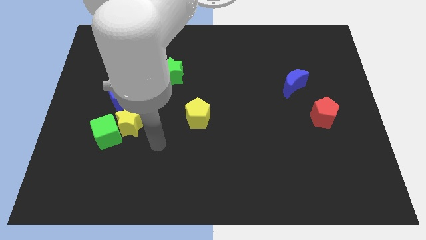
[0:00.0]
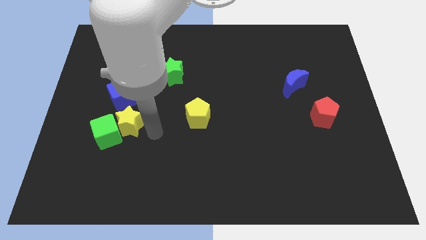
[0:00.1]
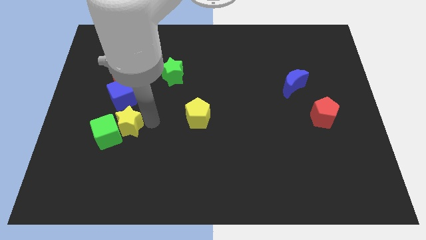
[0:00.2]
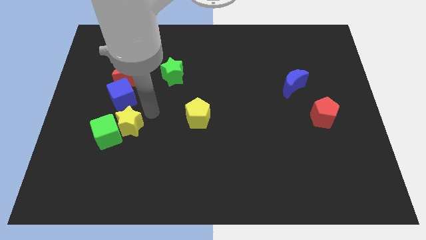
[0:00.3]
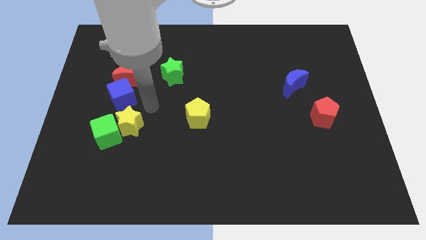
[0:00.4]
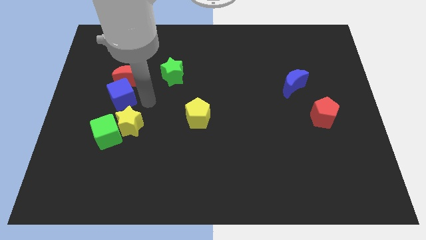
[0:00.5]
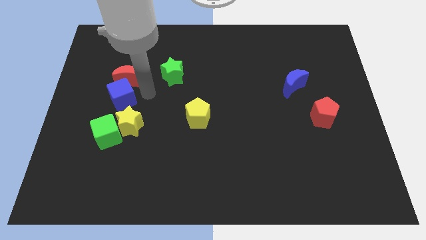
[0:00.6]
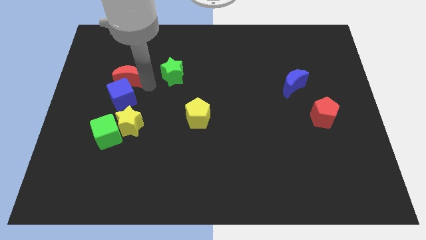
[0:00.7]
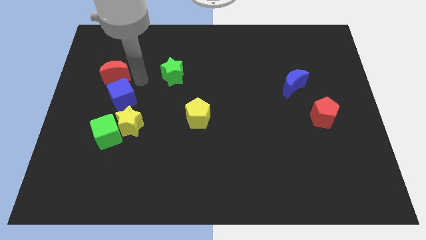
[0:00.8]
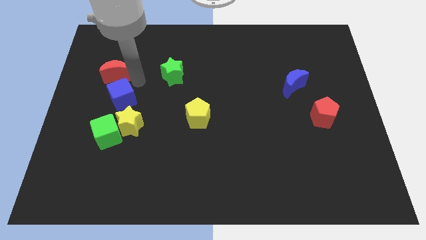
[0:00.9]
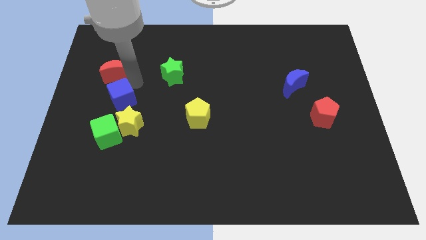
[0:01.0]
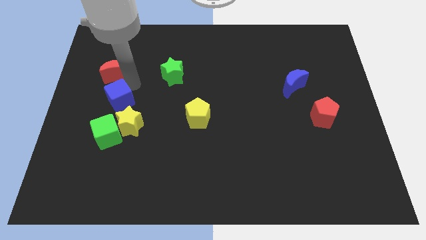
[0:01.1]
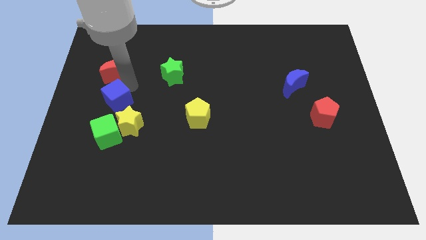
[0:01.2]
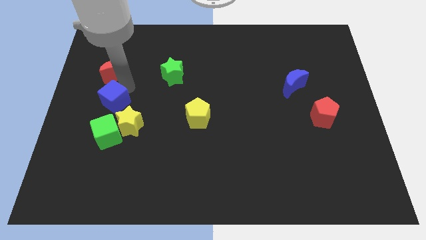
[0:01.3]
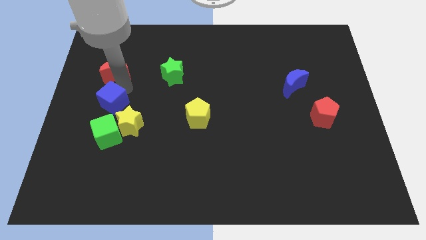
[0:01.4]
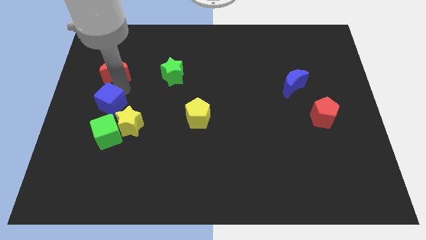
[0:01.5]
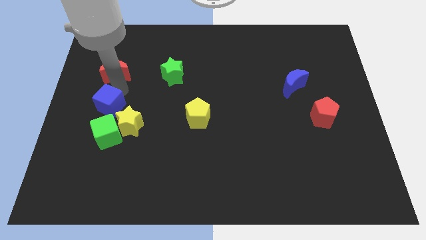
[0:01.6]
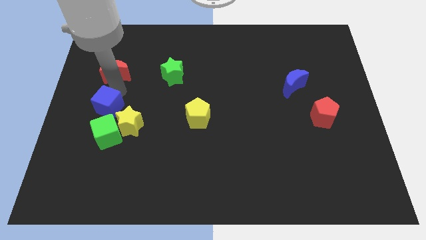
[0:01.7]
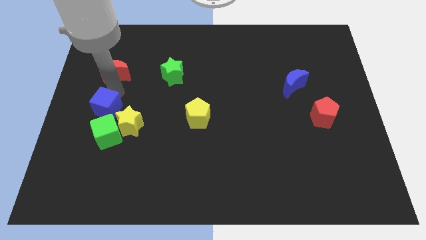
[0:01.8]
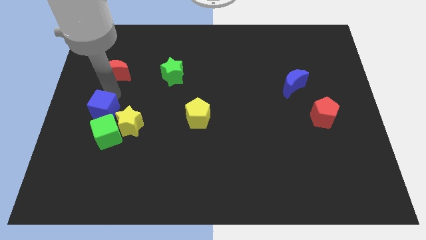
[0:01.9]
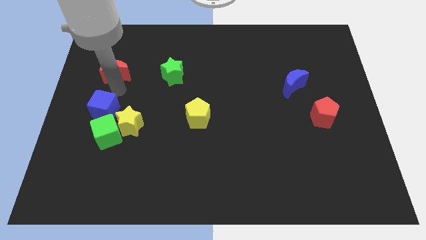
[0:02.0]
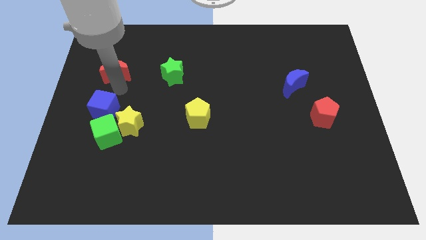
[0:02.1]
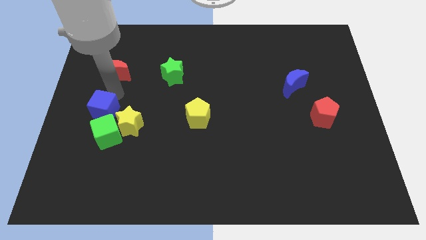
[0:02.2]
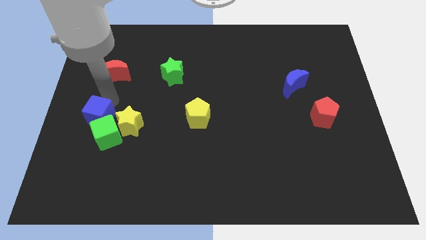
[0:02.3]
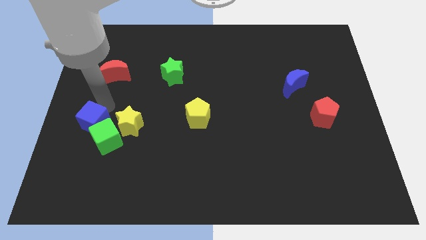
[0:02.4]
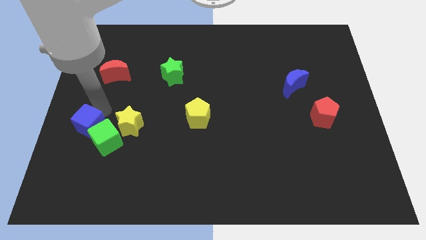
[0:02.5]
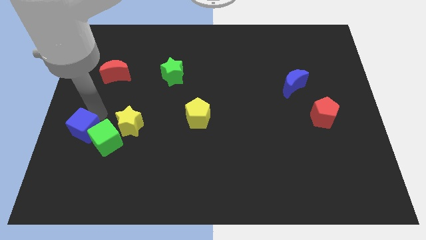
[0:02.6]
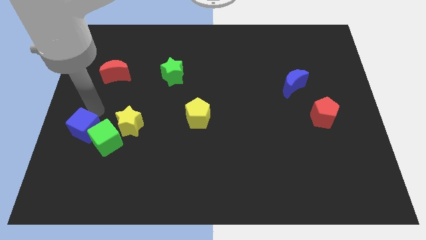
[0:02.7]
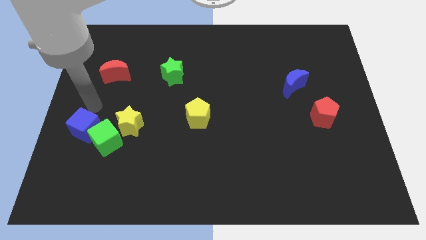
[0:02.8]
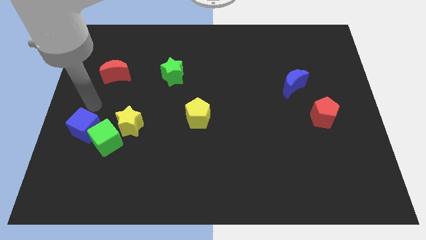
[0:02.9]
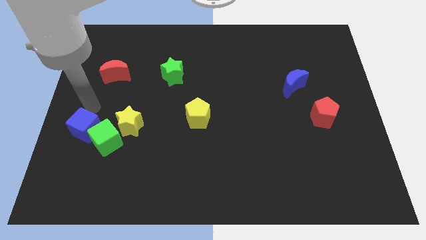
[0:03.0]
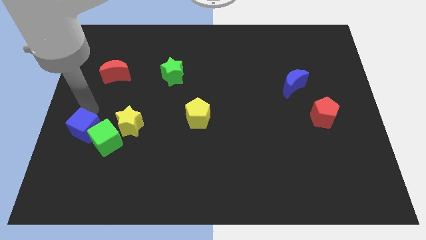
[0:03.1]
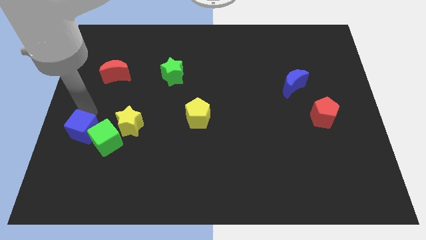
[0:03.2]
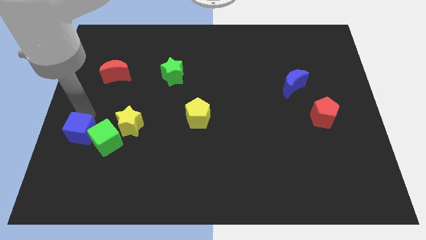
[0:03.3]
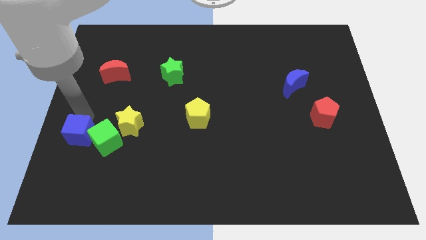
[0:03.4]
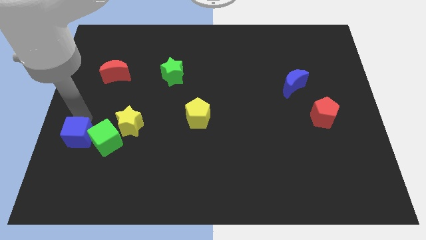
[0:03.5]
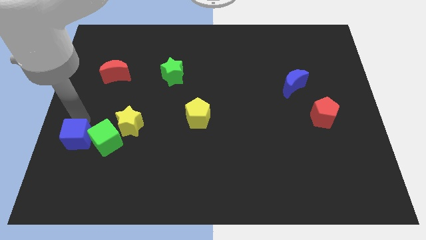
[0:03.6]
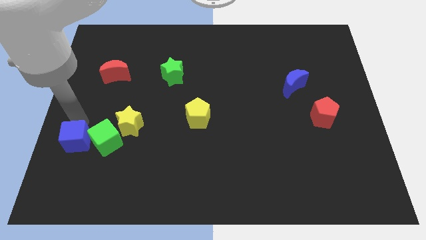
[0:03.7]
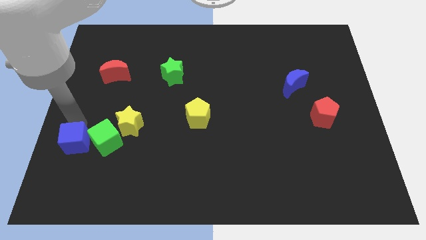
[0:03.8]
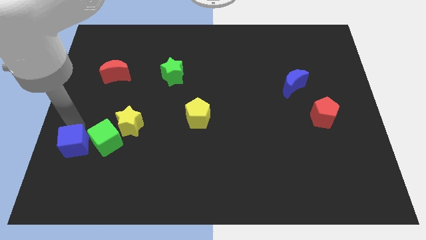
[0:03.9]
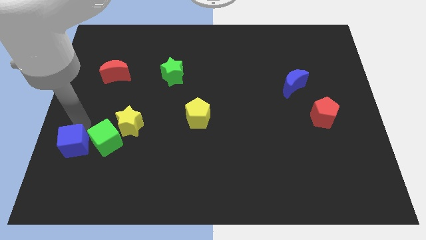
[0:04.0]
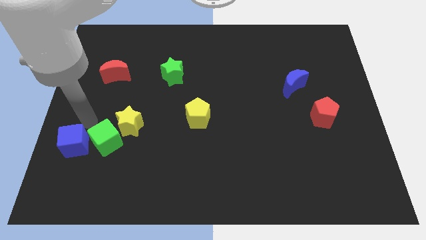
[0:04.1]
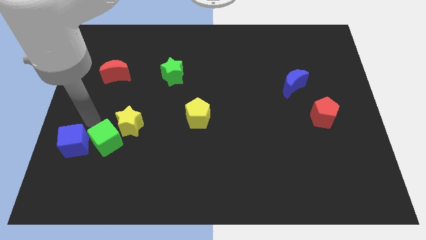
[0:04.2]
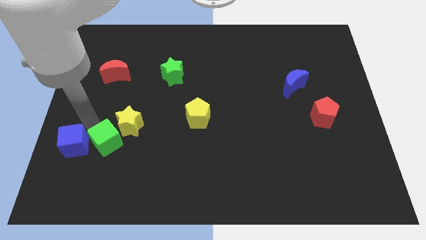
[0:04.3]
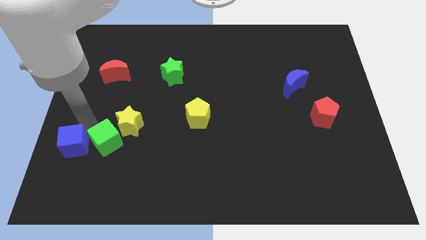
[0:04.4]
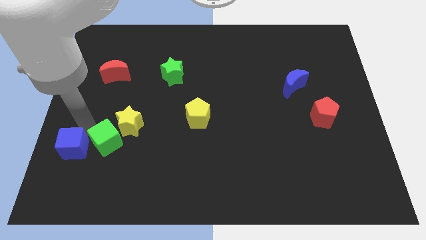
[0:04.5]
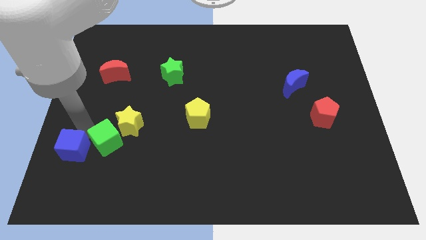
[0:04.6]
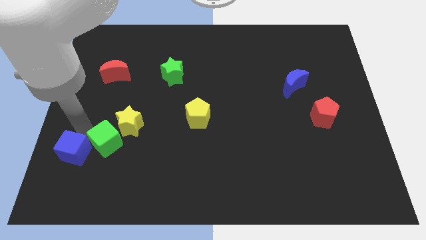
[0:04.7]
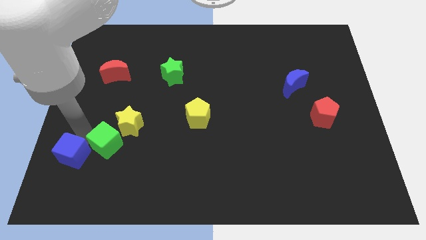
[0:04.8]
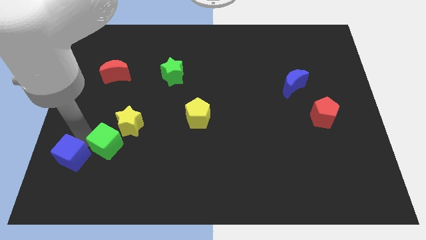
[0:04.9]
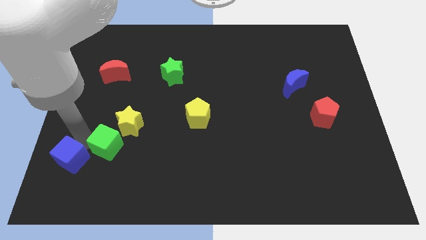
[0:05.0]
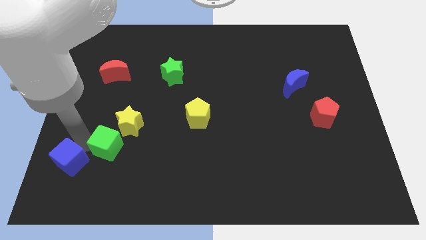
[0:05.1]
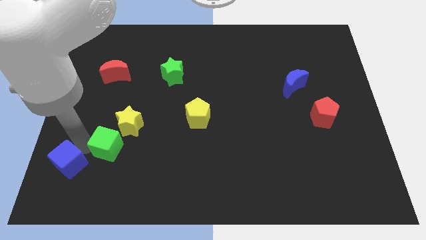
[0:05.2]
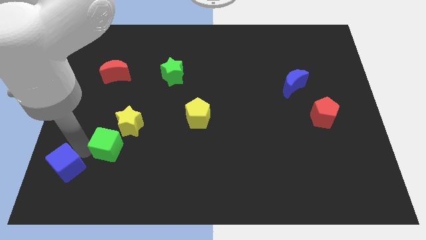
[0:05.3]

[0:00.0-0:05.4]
slide the blue cube to the bottom left of the board

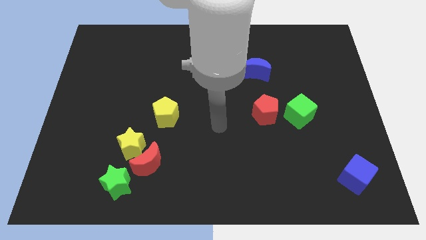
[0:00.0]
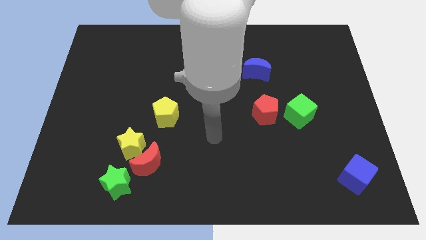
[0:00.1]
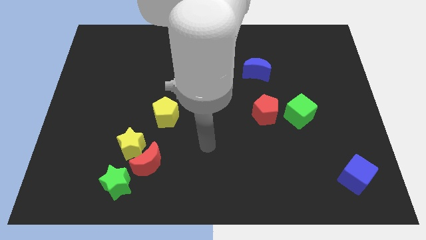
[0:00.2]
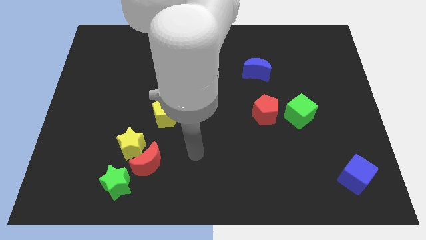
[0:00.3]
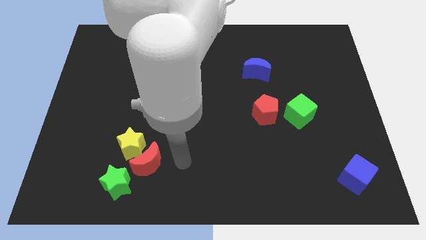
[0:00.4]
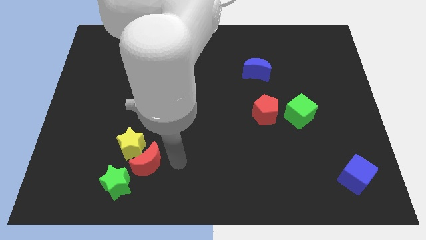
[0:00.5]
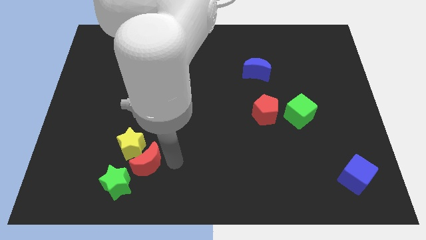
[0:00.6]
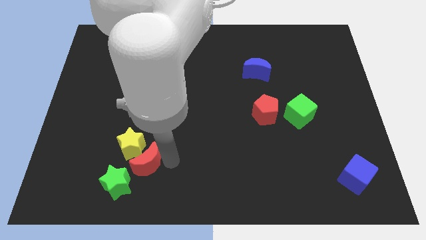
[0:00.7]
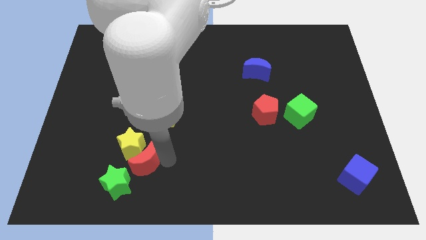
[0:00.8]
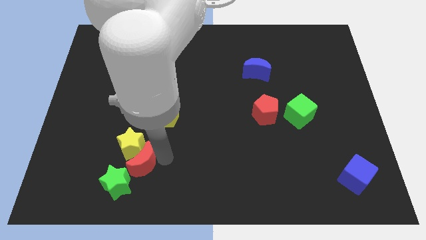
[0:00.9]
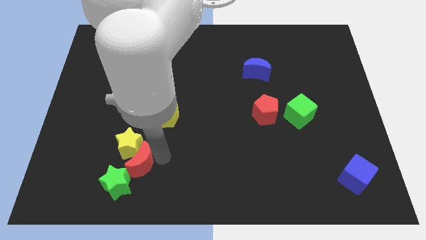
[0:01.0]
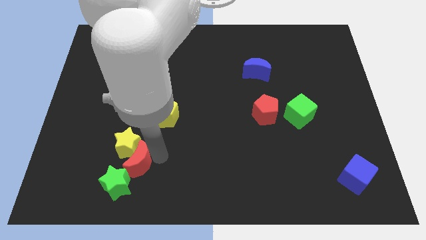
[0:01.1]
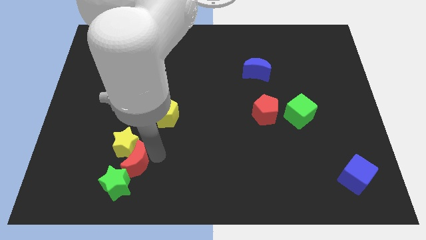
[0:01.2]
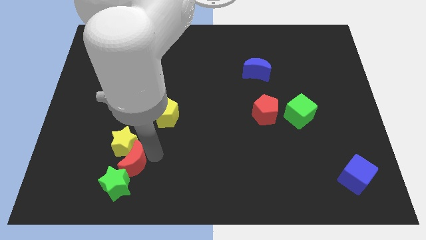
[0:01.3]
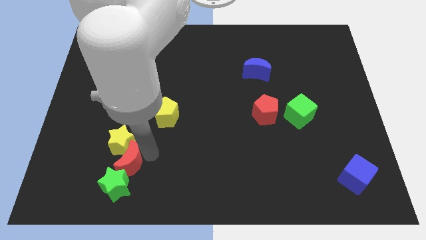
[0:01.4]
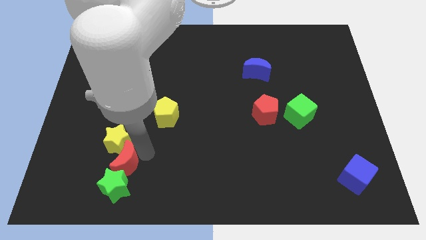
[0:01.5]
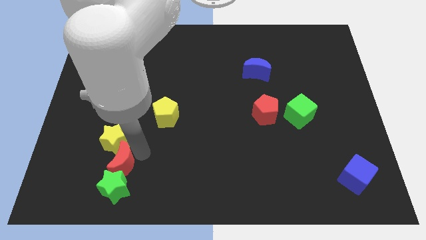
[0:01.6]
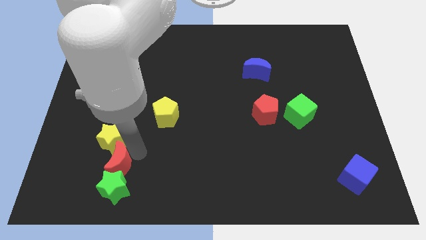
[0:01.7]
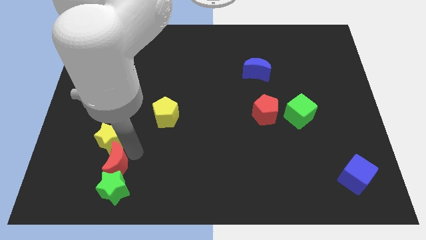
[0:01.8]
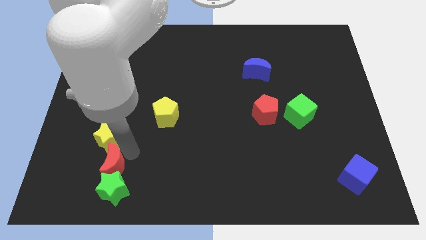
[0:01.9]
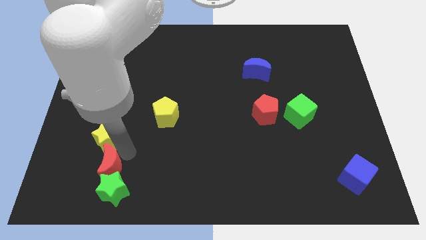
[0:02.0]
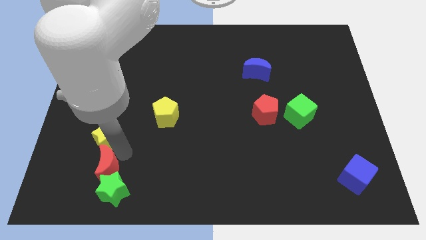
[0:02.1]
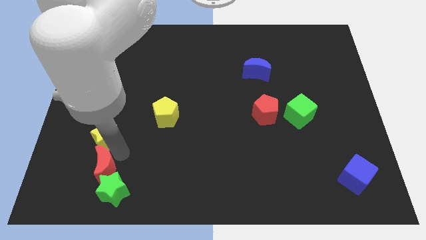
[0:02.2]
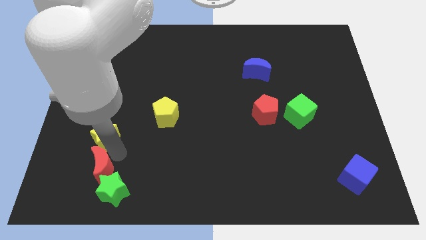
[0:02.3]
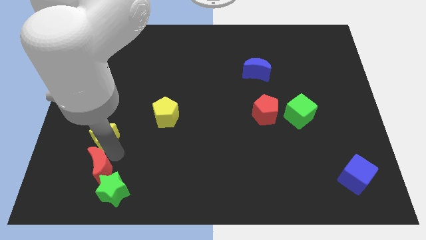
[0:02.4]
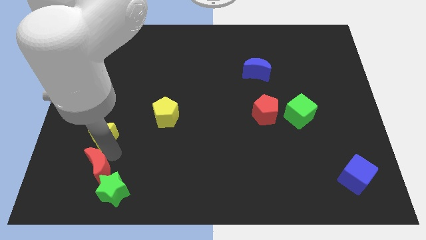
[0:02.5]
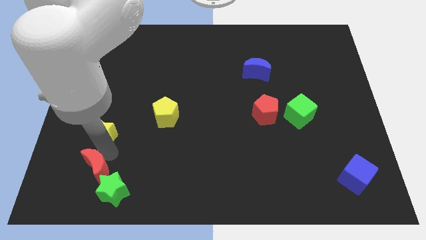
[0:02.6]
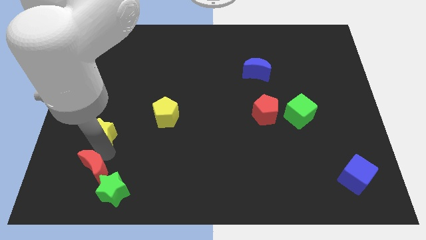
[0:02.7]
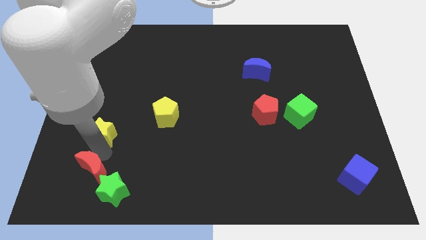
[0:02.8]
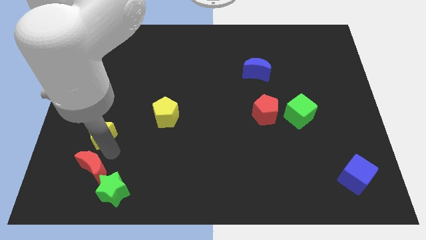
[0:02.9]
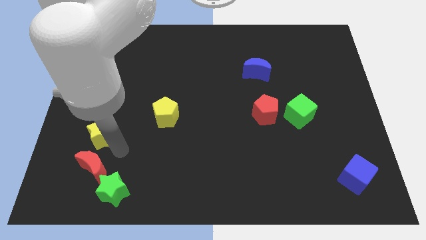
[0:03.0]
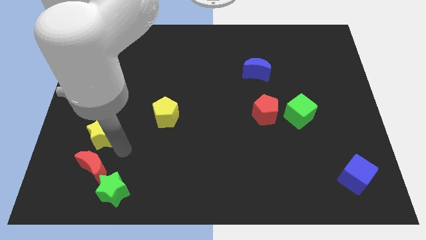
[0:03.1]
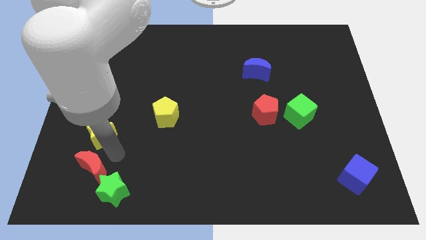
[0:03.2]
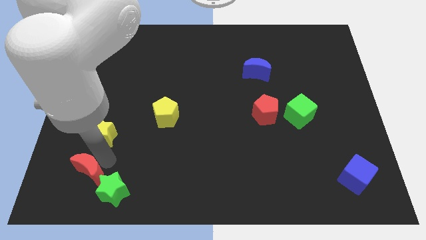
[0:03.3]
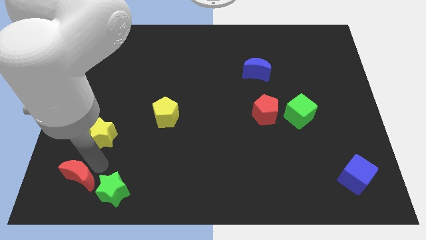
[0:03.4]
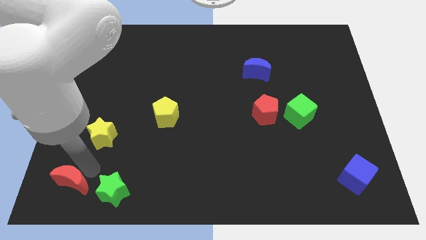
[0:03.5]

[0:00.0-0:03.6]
slide the red moon to the lower left corner
